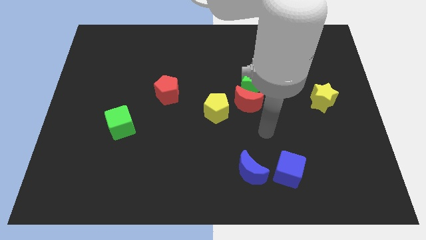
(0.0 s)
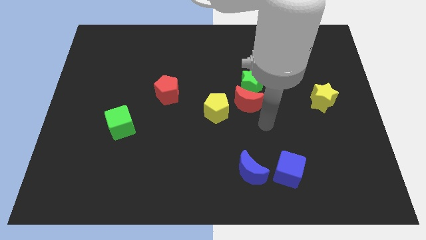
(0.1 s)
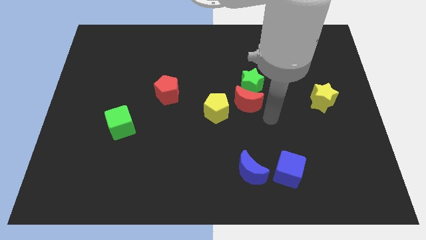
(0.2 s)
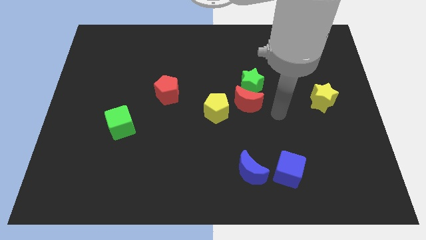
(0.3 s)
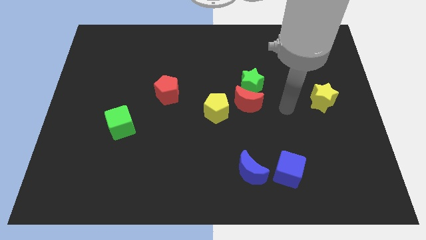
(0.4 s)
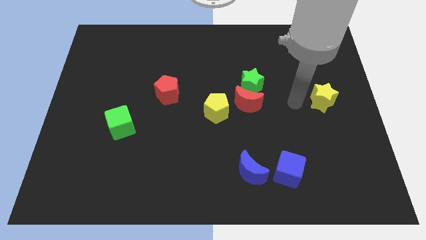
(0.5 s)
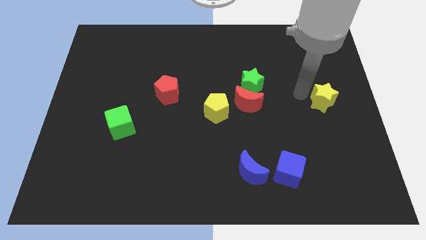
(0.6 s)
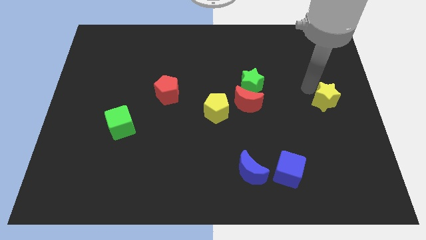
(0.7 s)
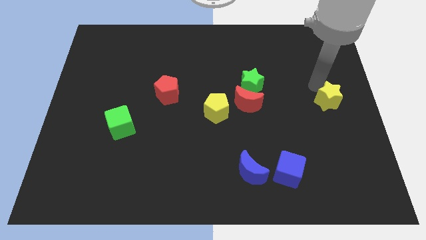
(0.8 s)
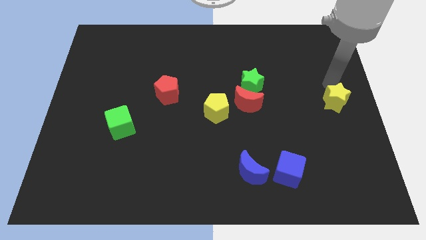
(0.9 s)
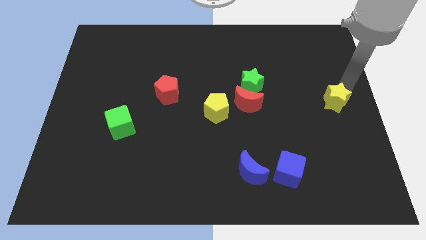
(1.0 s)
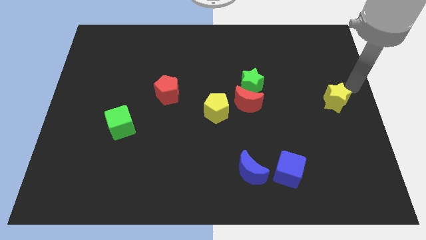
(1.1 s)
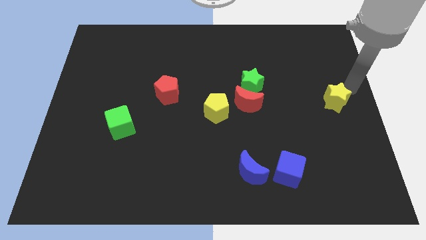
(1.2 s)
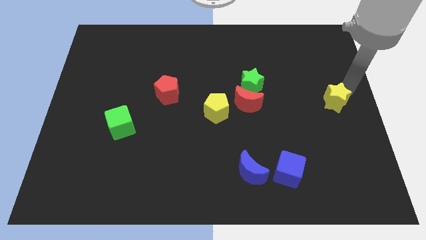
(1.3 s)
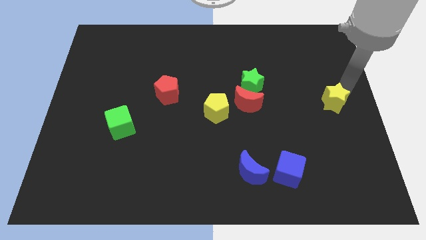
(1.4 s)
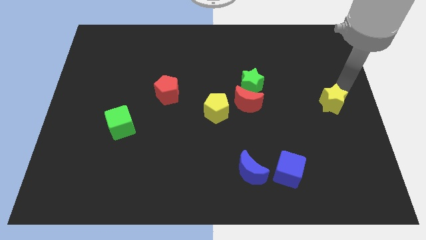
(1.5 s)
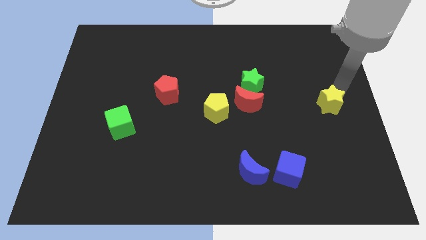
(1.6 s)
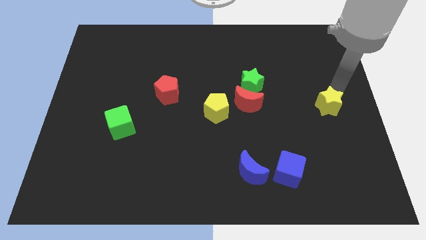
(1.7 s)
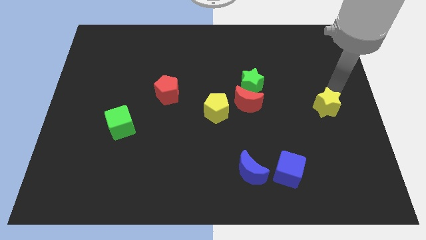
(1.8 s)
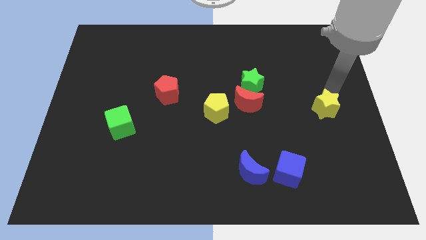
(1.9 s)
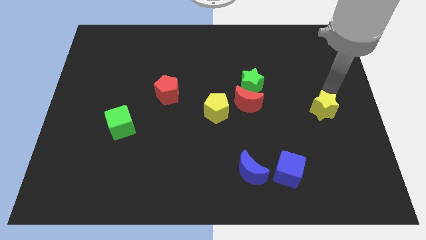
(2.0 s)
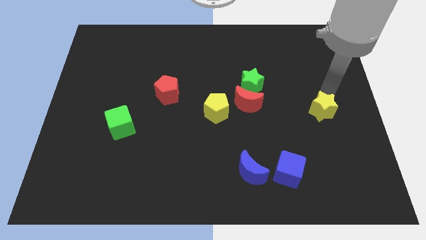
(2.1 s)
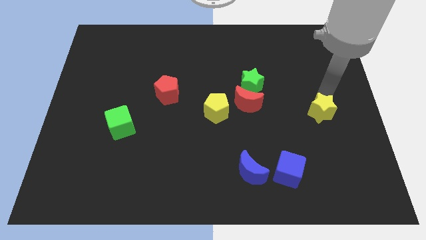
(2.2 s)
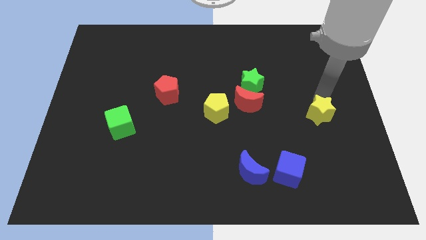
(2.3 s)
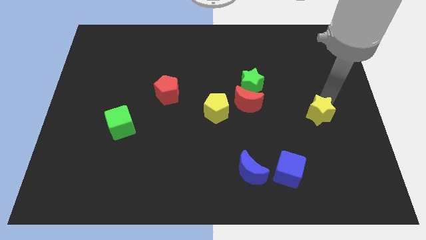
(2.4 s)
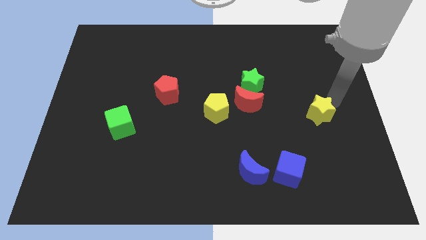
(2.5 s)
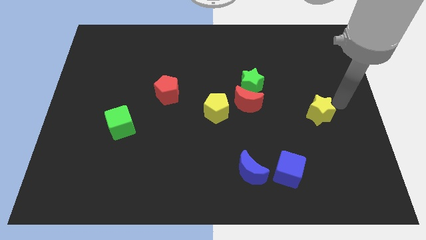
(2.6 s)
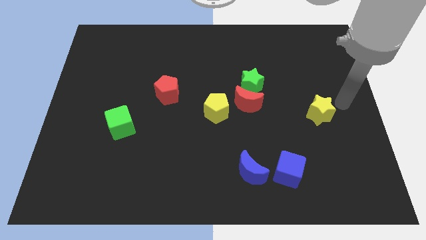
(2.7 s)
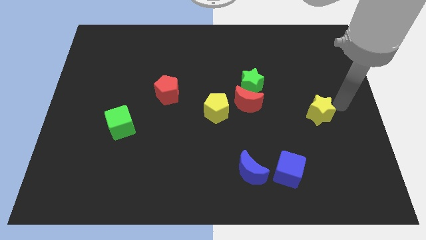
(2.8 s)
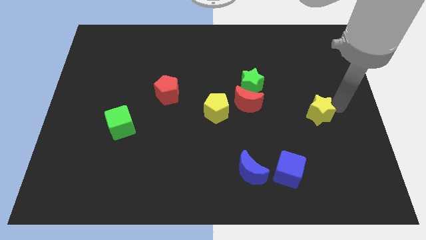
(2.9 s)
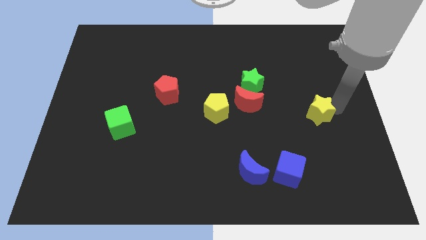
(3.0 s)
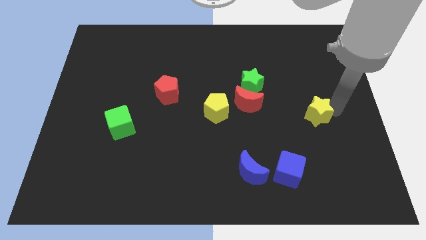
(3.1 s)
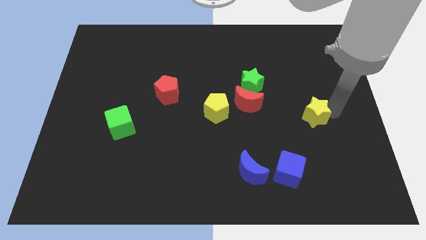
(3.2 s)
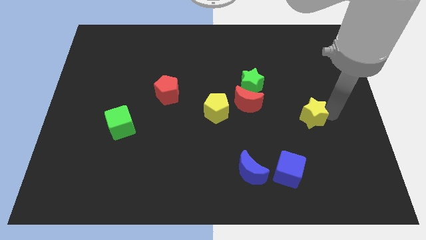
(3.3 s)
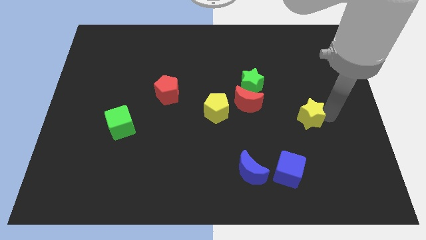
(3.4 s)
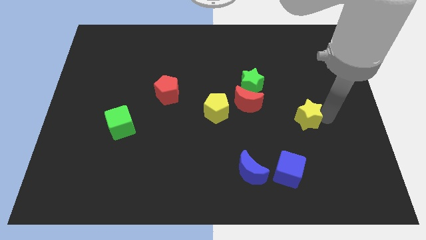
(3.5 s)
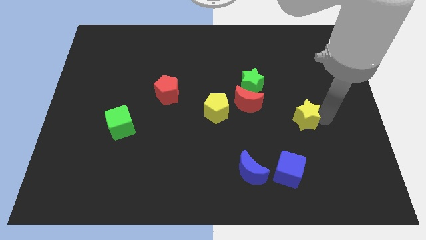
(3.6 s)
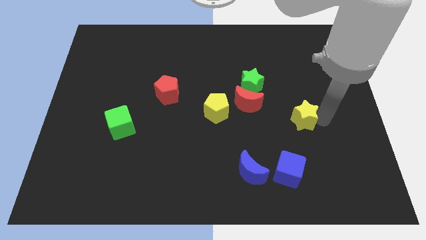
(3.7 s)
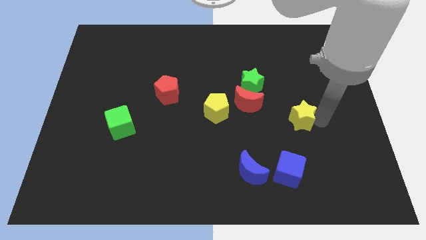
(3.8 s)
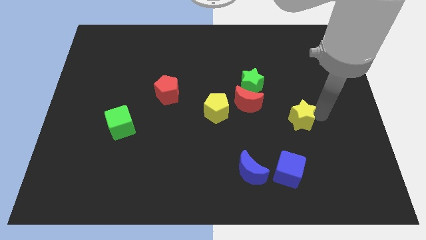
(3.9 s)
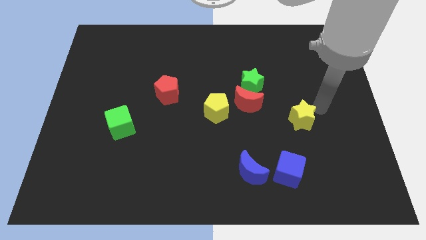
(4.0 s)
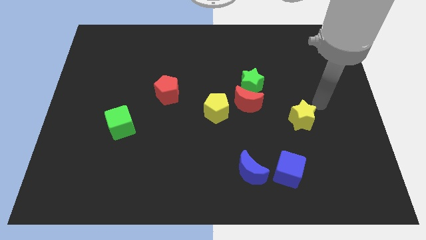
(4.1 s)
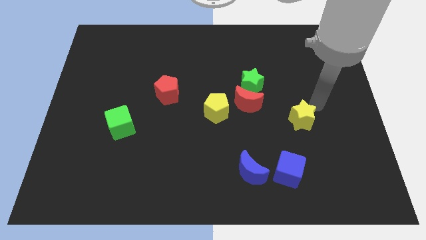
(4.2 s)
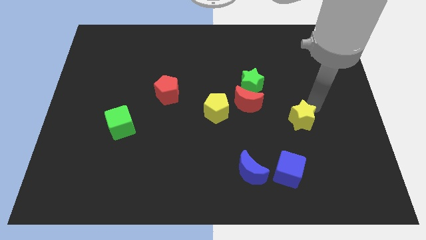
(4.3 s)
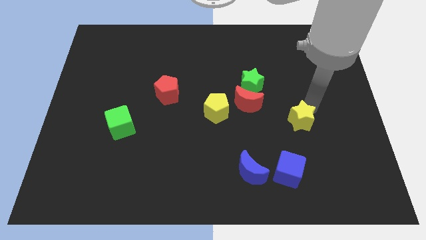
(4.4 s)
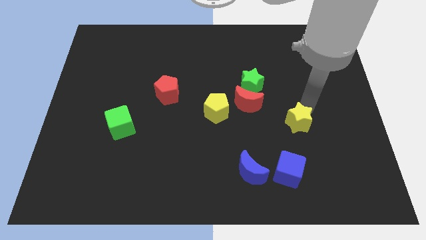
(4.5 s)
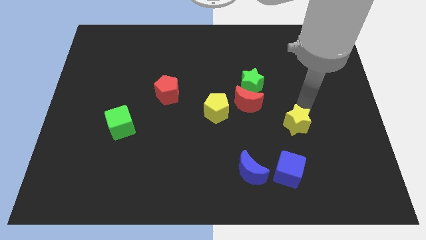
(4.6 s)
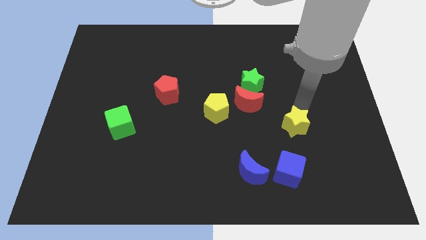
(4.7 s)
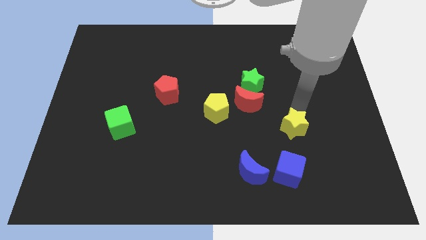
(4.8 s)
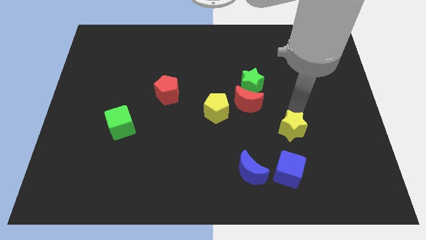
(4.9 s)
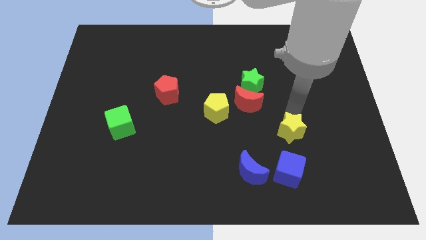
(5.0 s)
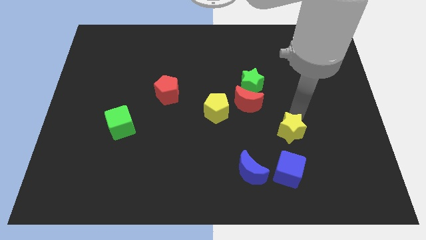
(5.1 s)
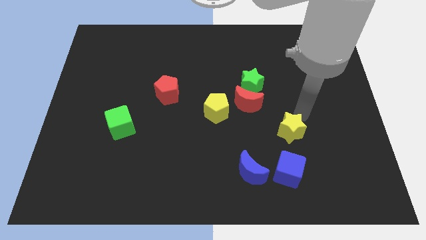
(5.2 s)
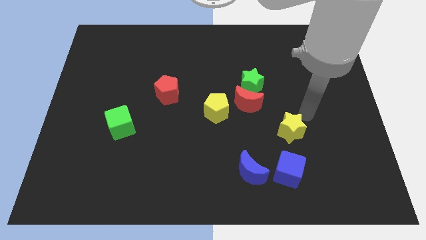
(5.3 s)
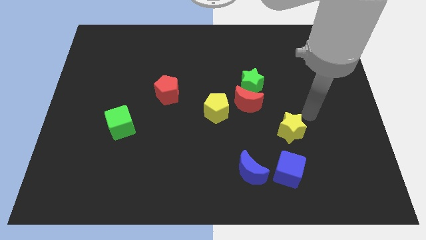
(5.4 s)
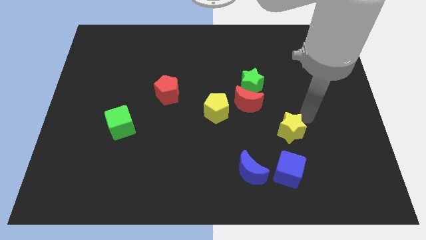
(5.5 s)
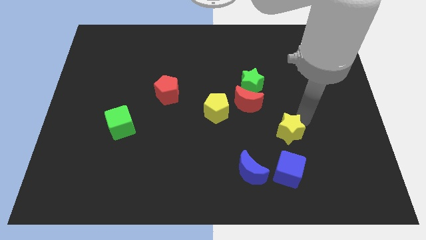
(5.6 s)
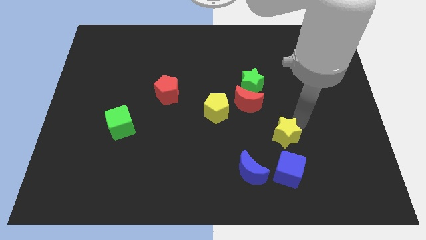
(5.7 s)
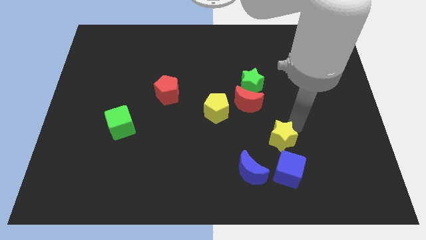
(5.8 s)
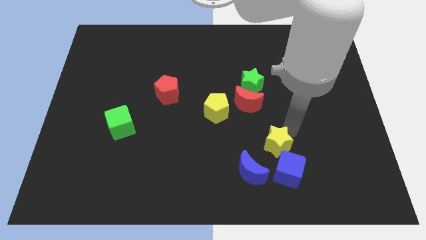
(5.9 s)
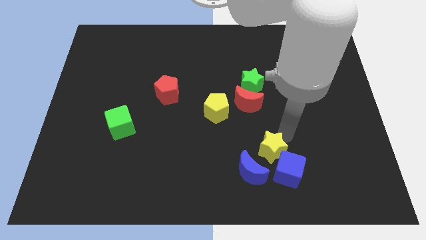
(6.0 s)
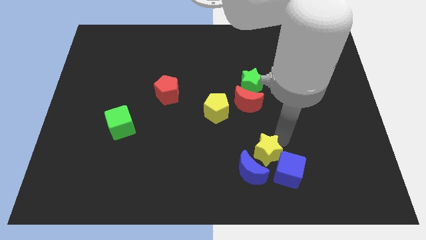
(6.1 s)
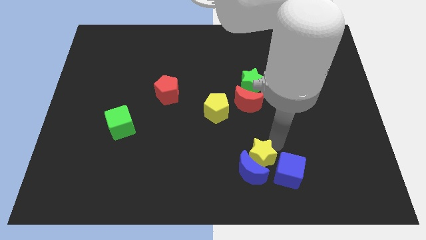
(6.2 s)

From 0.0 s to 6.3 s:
move the yellow star close to the blue moon

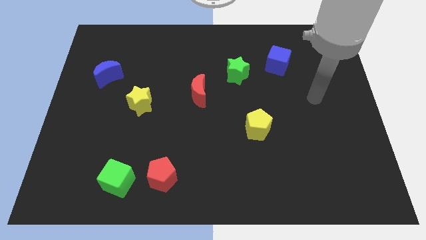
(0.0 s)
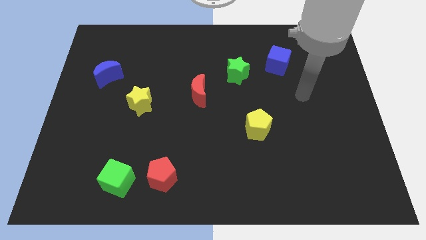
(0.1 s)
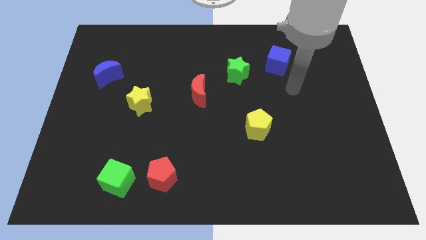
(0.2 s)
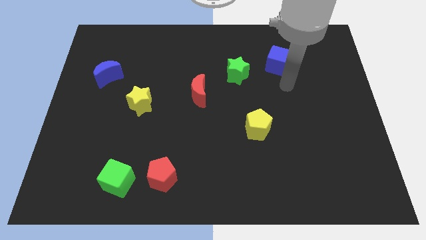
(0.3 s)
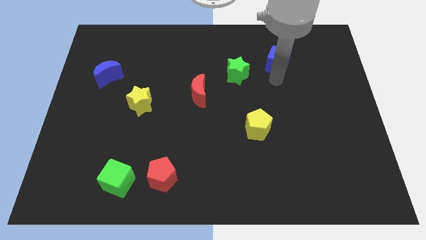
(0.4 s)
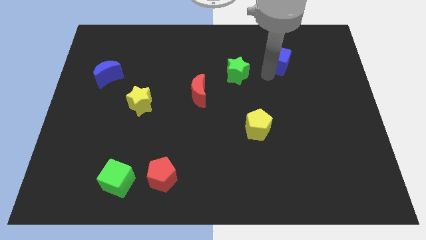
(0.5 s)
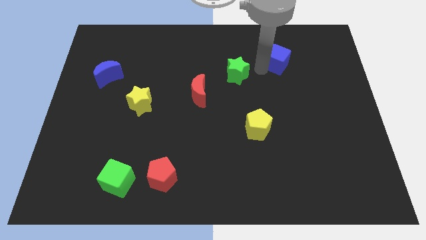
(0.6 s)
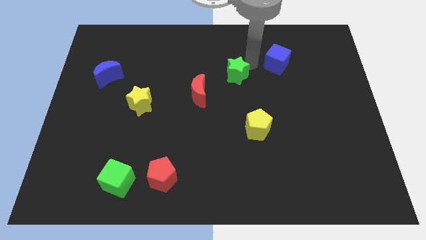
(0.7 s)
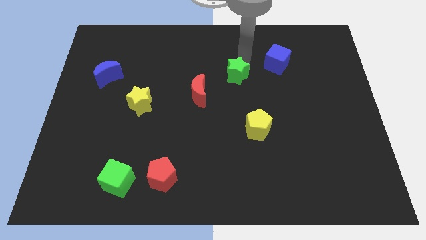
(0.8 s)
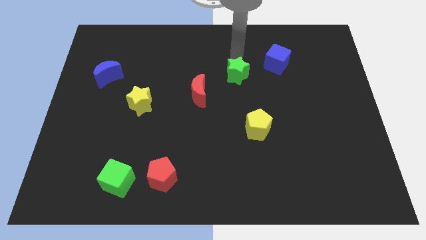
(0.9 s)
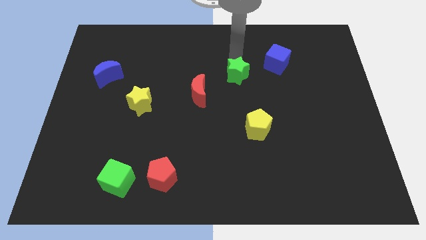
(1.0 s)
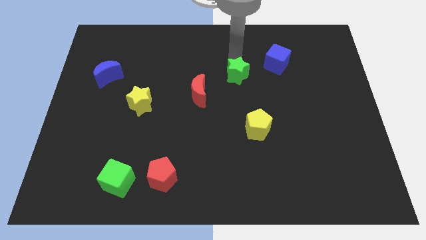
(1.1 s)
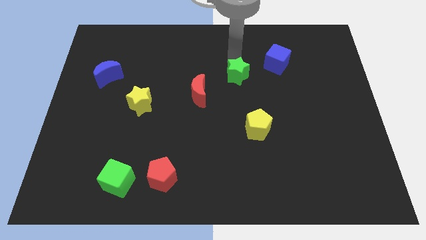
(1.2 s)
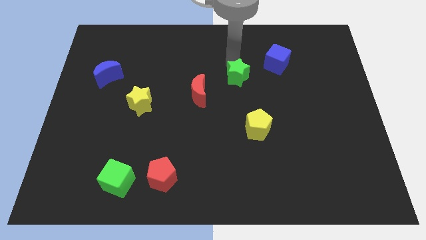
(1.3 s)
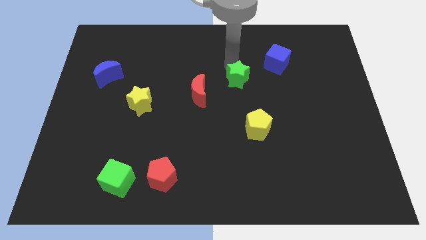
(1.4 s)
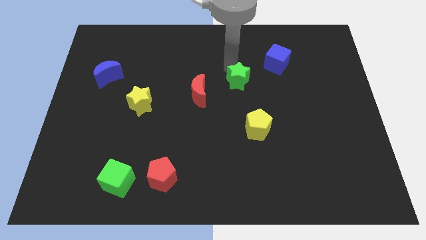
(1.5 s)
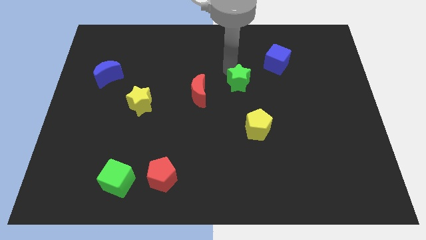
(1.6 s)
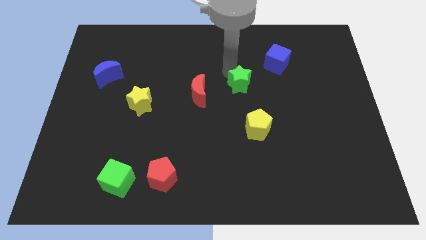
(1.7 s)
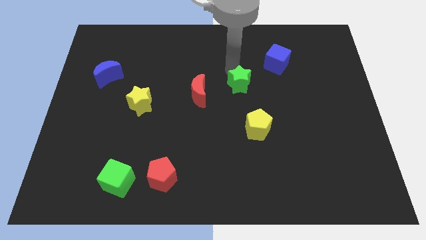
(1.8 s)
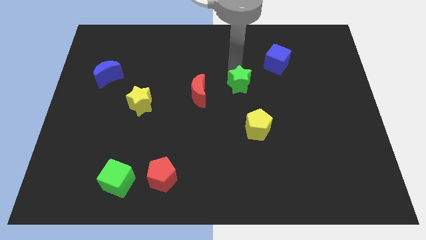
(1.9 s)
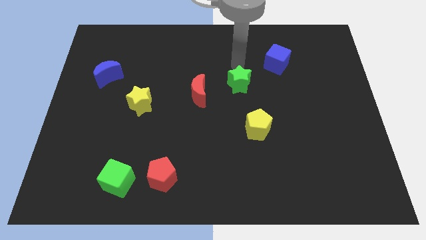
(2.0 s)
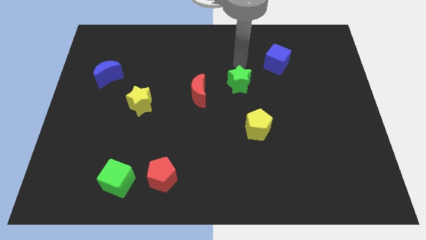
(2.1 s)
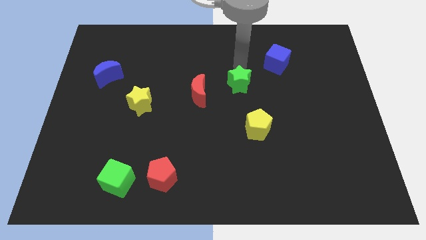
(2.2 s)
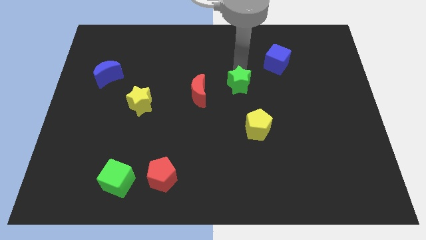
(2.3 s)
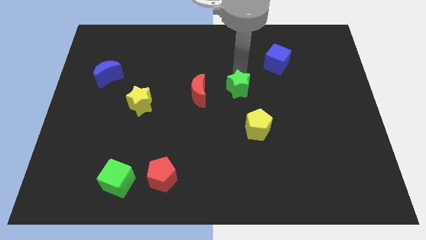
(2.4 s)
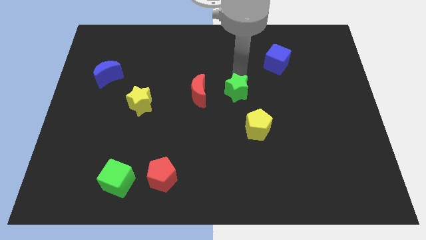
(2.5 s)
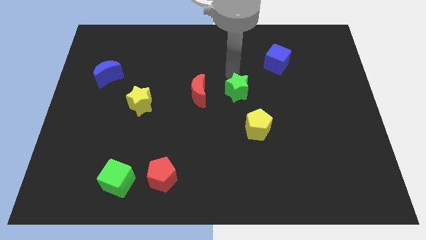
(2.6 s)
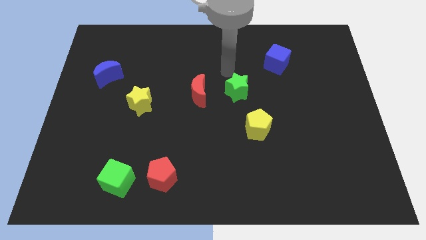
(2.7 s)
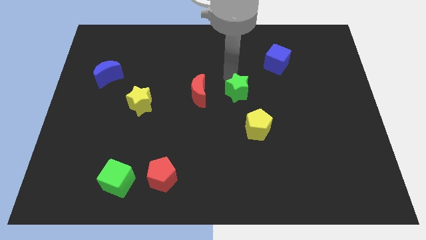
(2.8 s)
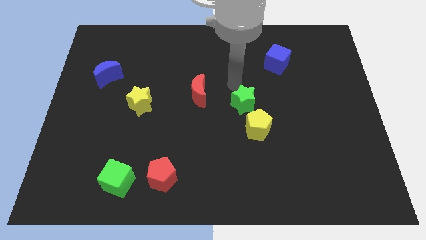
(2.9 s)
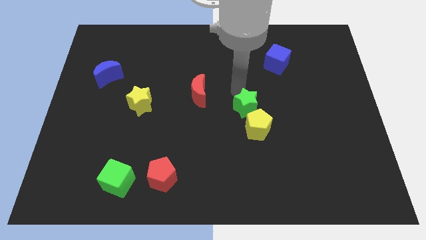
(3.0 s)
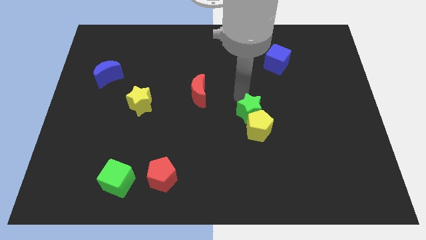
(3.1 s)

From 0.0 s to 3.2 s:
push the green star towards the yellow pentagon
